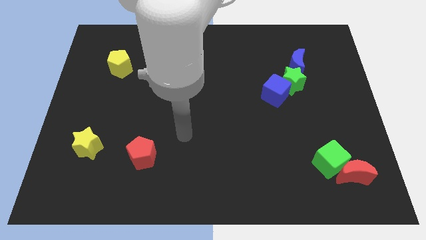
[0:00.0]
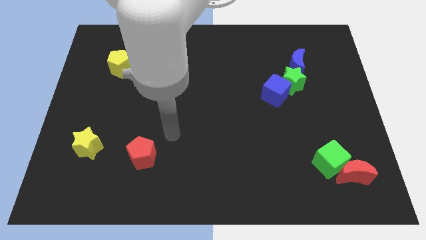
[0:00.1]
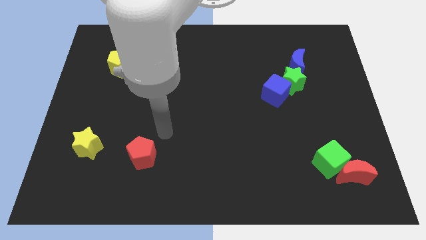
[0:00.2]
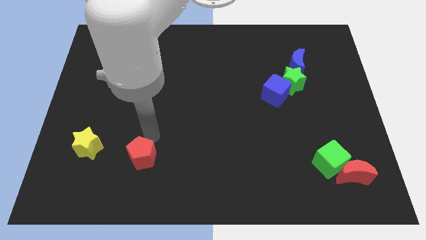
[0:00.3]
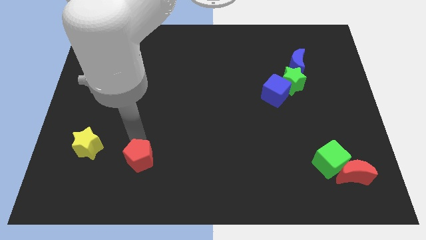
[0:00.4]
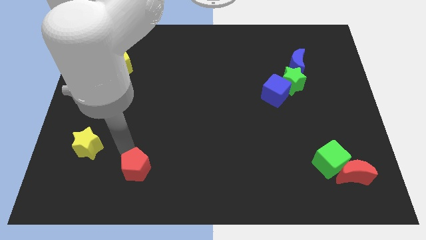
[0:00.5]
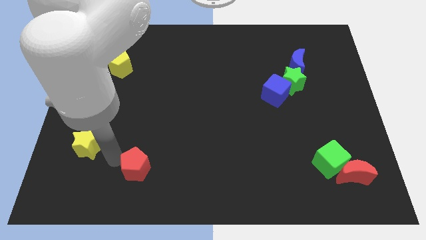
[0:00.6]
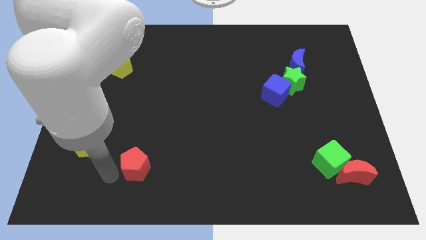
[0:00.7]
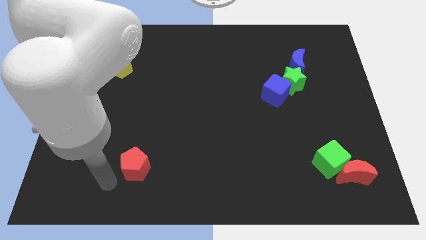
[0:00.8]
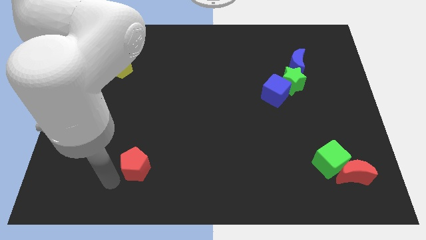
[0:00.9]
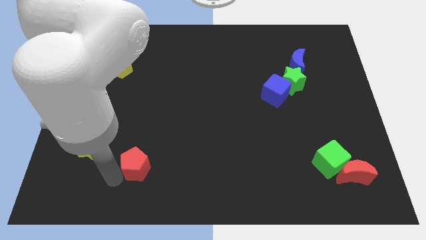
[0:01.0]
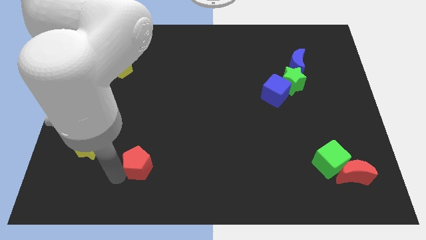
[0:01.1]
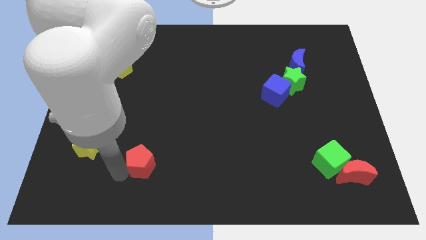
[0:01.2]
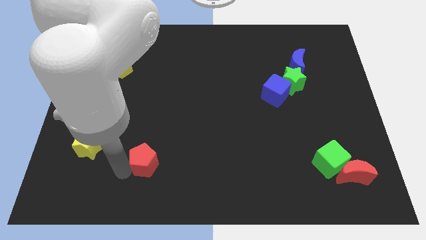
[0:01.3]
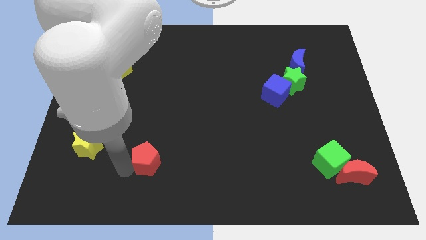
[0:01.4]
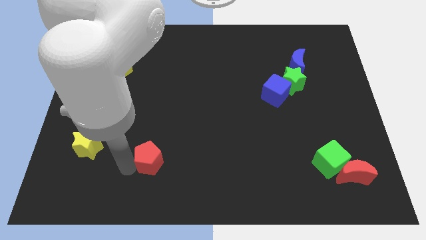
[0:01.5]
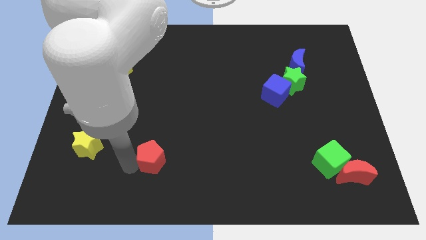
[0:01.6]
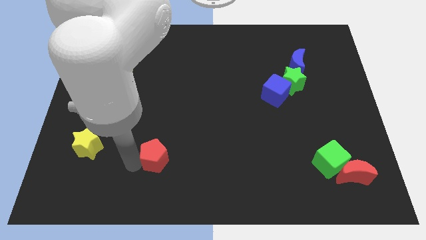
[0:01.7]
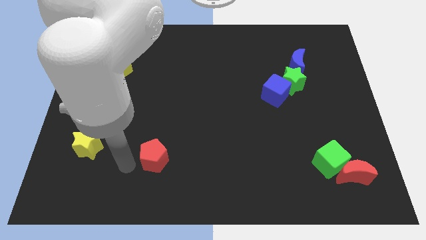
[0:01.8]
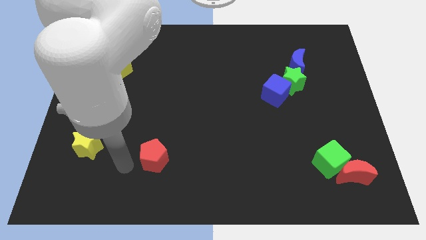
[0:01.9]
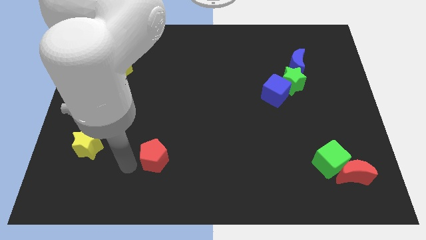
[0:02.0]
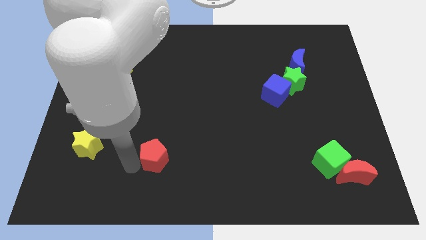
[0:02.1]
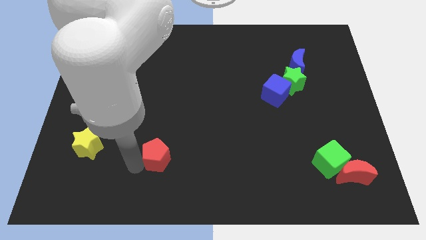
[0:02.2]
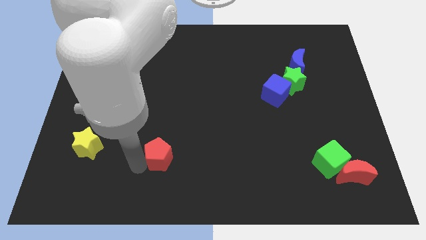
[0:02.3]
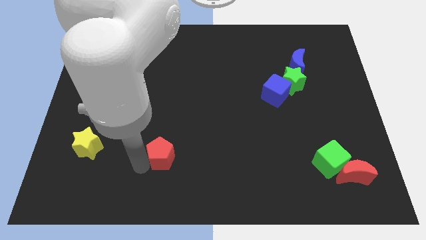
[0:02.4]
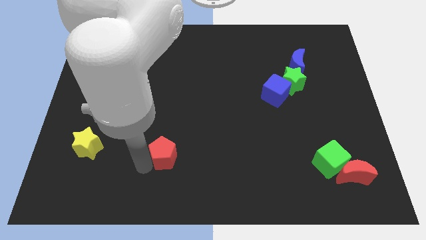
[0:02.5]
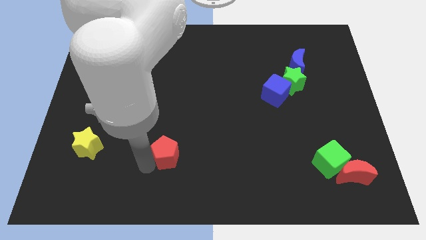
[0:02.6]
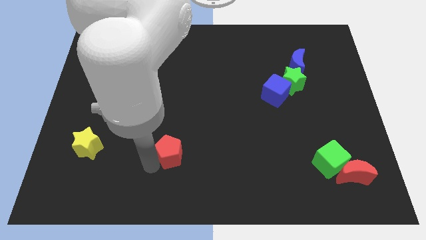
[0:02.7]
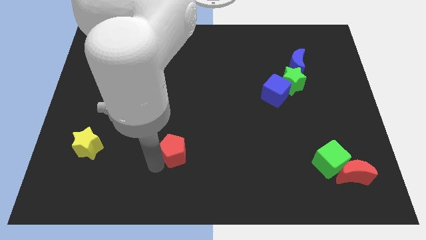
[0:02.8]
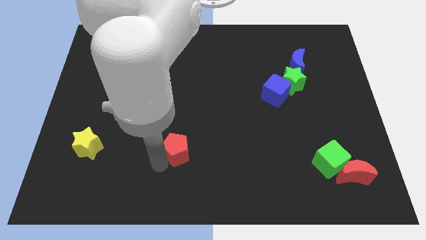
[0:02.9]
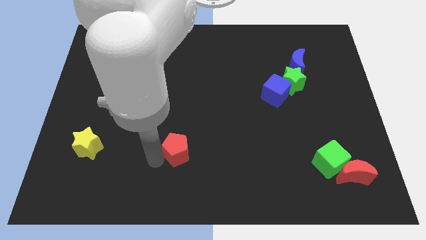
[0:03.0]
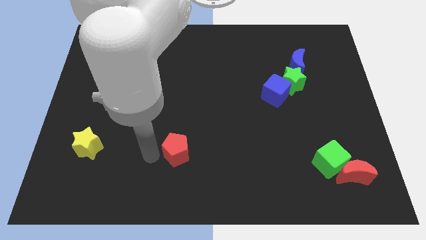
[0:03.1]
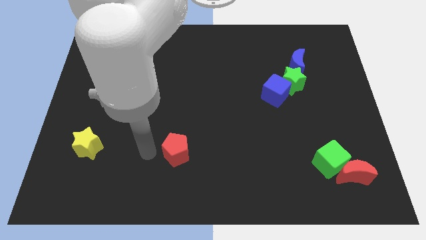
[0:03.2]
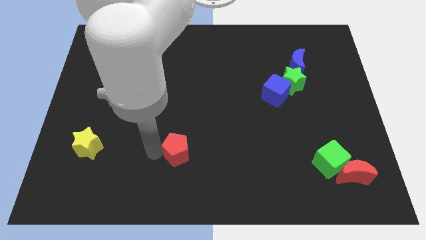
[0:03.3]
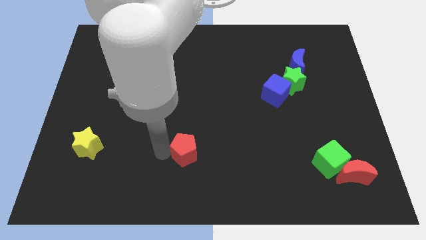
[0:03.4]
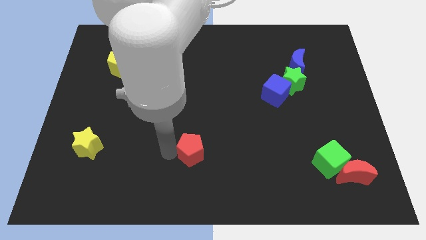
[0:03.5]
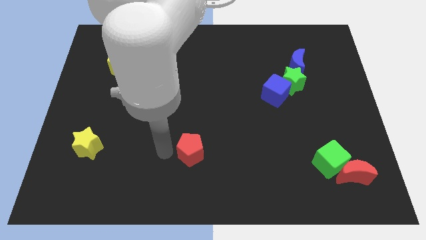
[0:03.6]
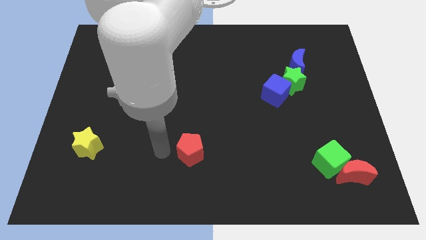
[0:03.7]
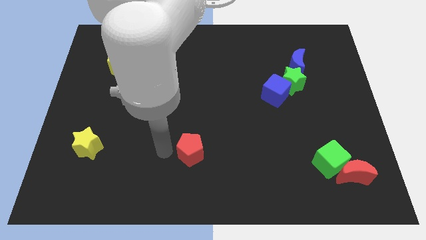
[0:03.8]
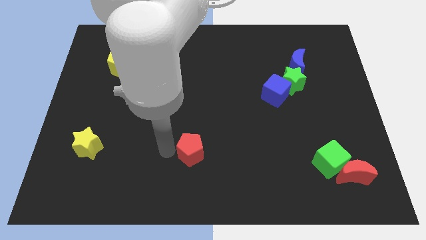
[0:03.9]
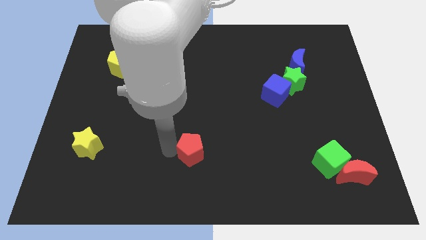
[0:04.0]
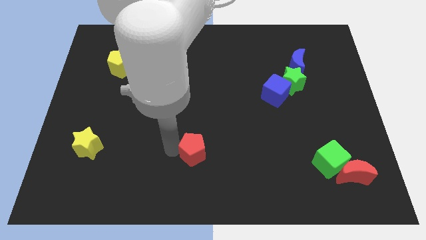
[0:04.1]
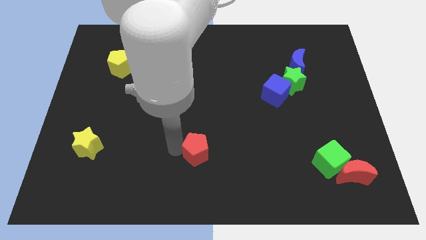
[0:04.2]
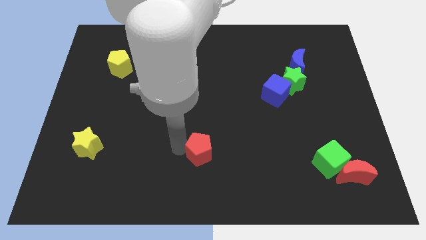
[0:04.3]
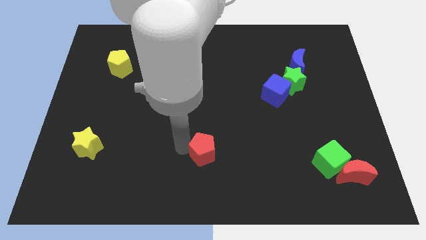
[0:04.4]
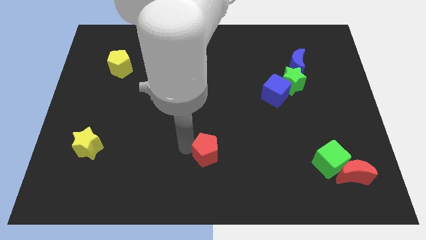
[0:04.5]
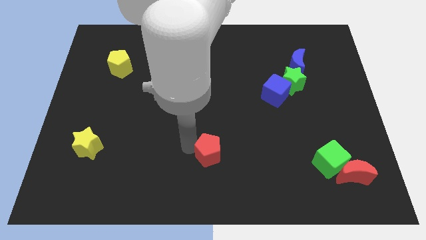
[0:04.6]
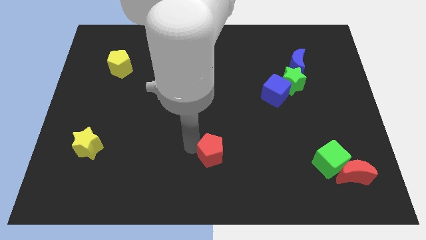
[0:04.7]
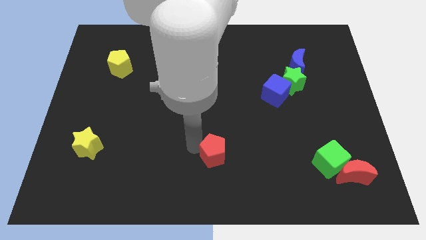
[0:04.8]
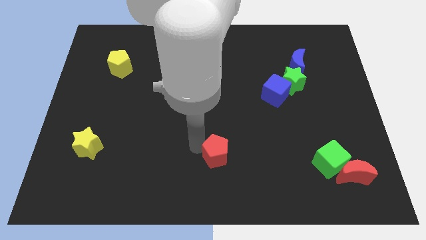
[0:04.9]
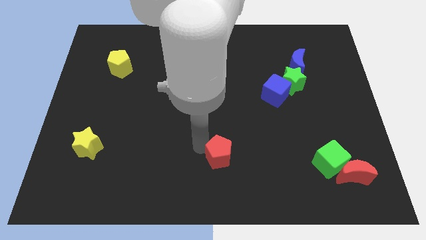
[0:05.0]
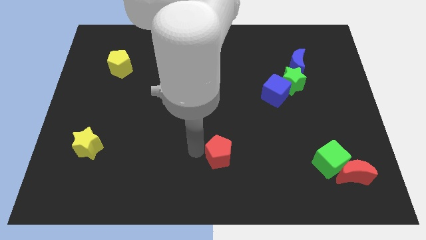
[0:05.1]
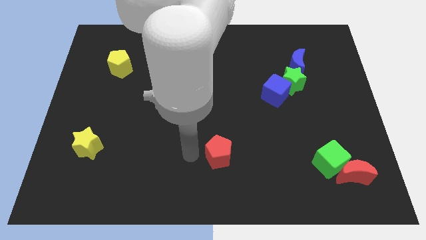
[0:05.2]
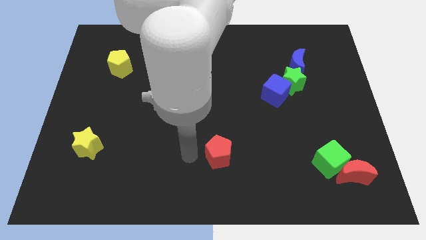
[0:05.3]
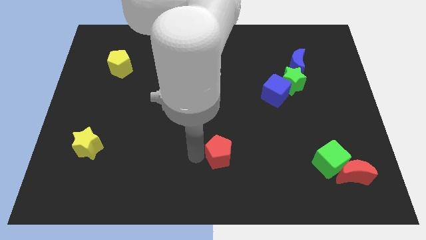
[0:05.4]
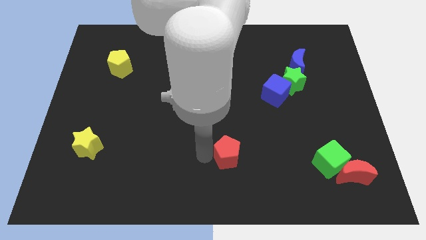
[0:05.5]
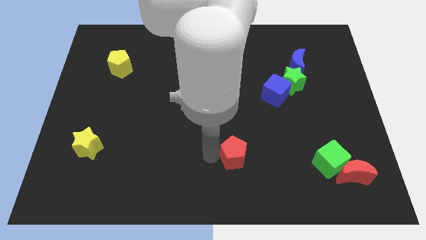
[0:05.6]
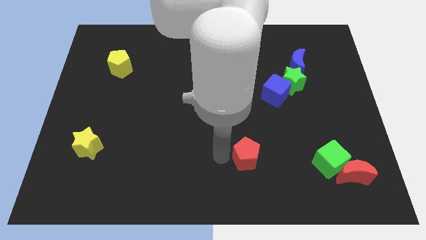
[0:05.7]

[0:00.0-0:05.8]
push the red pentagon right

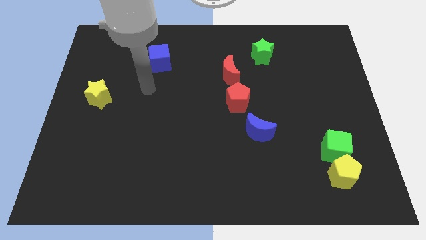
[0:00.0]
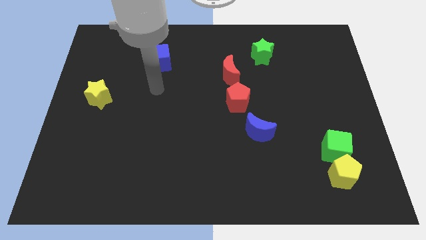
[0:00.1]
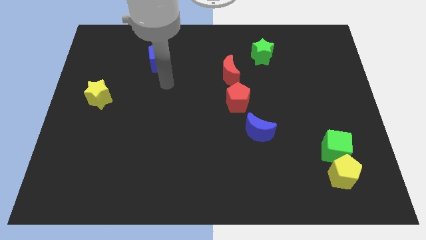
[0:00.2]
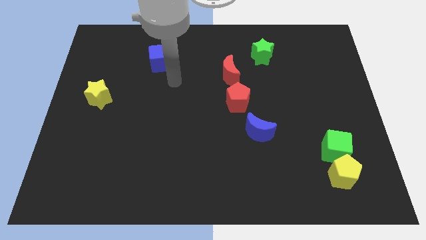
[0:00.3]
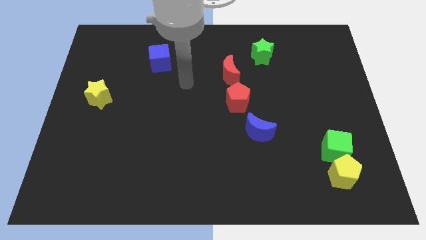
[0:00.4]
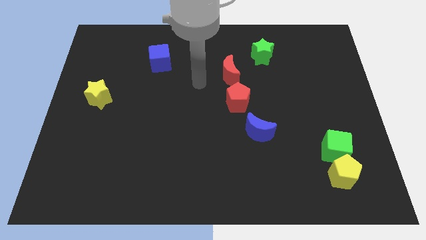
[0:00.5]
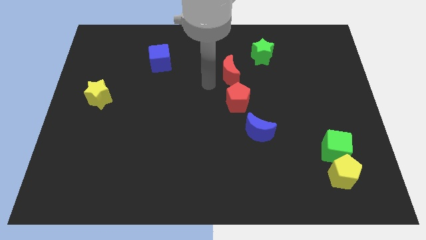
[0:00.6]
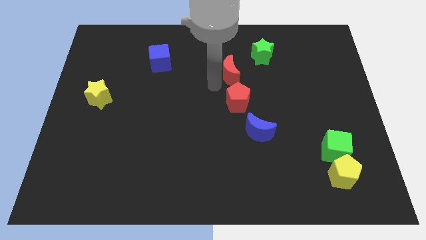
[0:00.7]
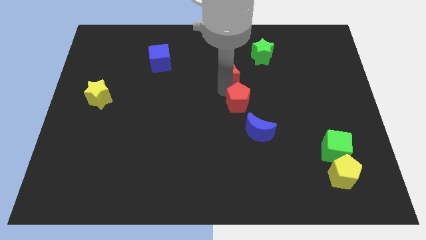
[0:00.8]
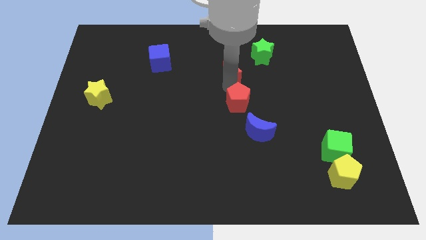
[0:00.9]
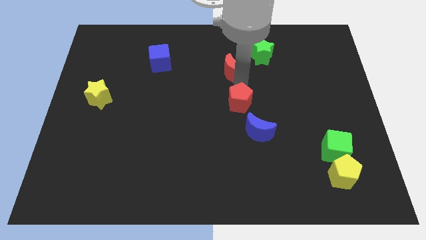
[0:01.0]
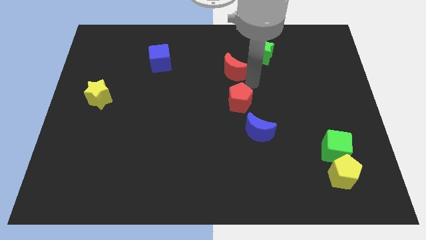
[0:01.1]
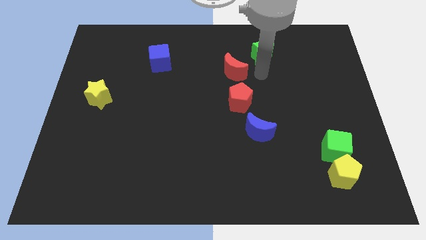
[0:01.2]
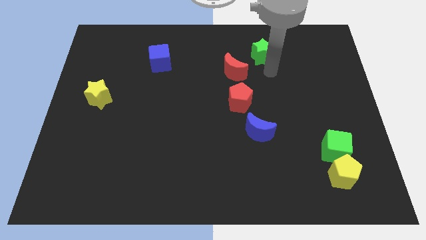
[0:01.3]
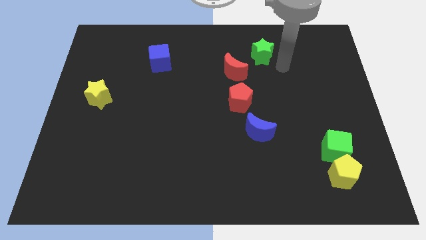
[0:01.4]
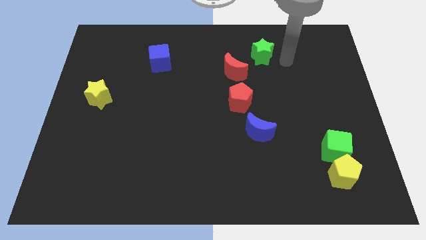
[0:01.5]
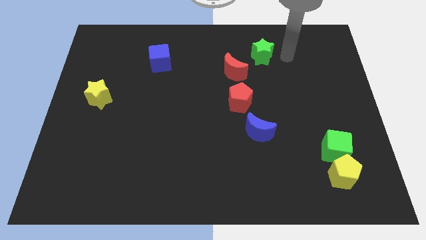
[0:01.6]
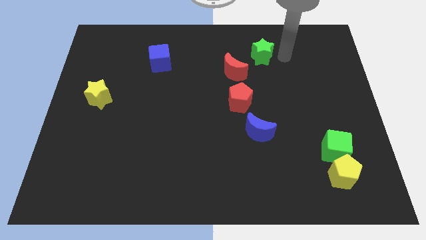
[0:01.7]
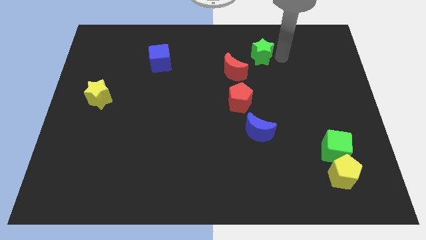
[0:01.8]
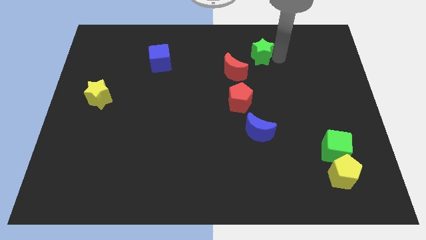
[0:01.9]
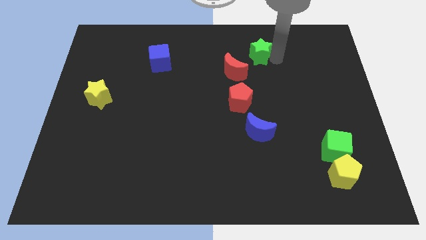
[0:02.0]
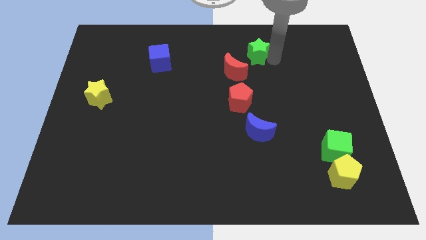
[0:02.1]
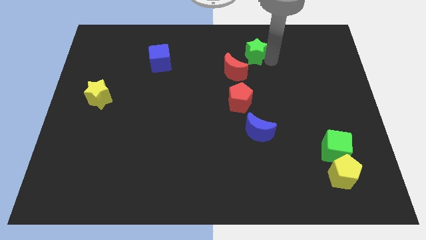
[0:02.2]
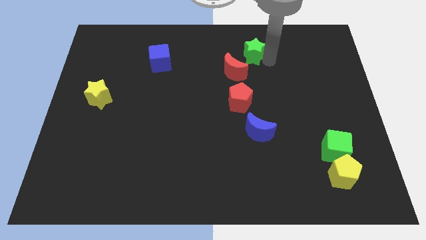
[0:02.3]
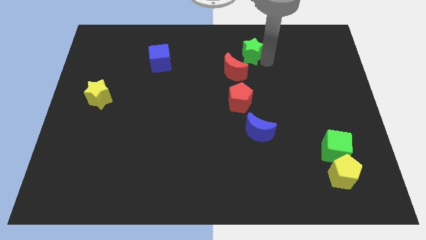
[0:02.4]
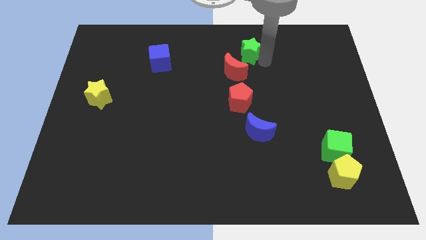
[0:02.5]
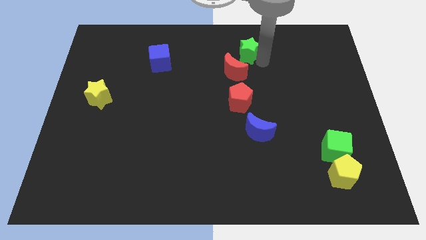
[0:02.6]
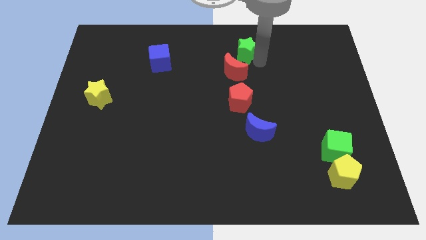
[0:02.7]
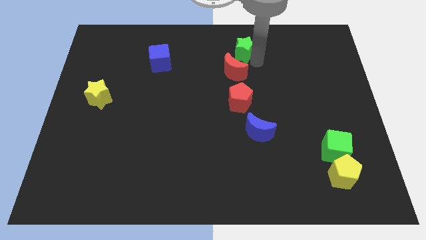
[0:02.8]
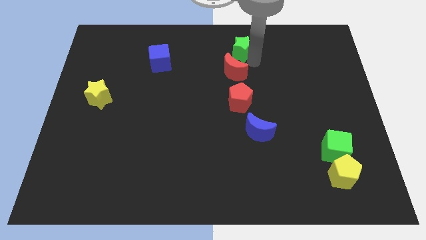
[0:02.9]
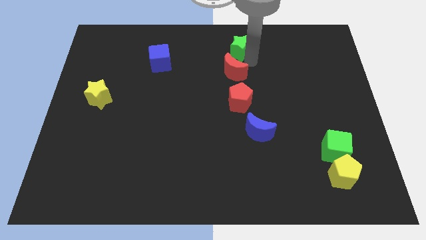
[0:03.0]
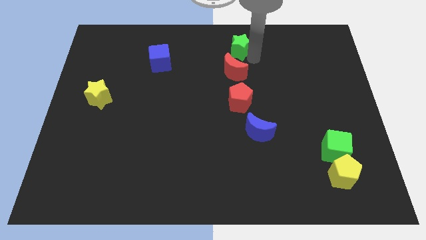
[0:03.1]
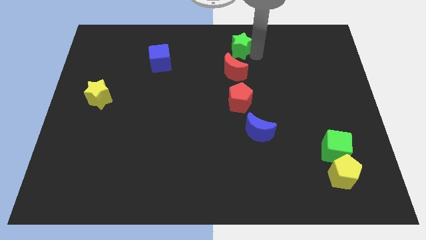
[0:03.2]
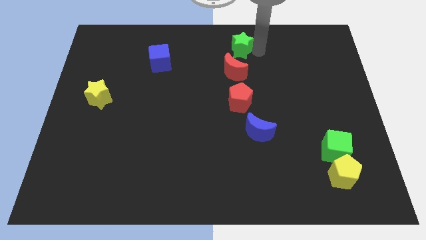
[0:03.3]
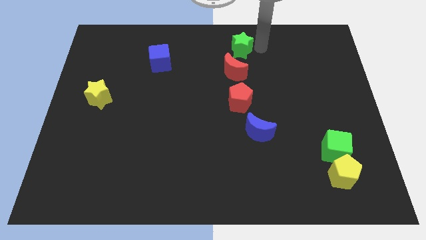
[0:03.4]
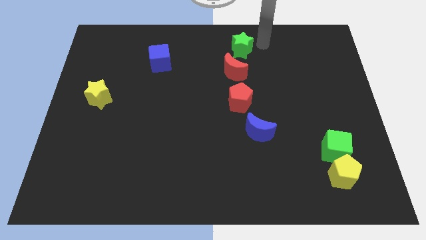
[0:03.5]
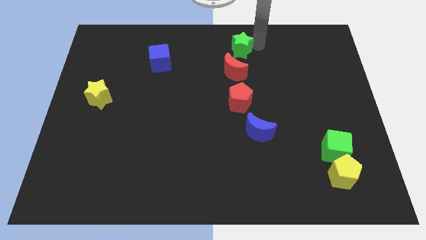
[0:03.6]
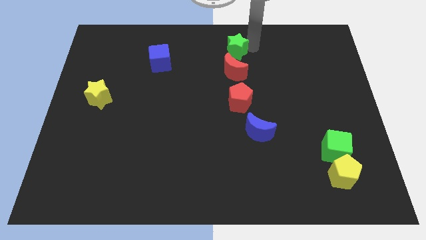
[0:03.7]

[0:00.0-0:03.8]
slide the green star left a bit
